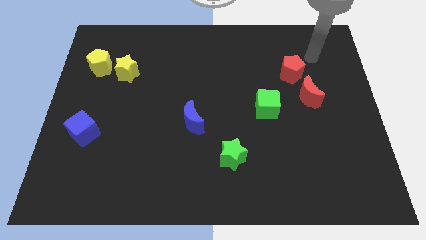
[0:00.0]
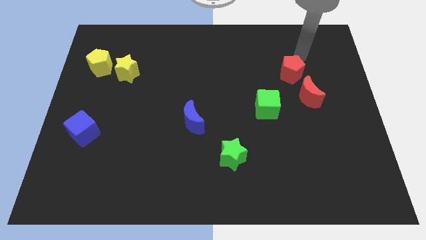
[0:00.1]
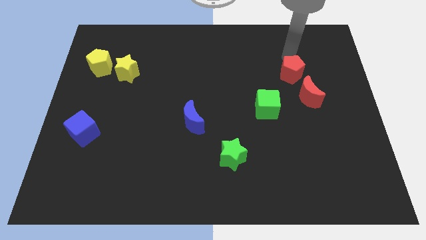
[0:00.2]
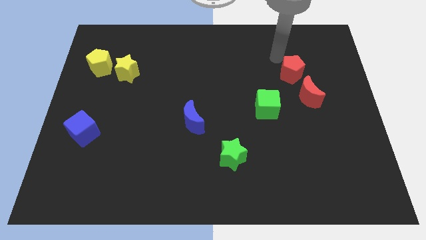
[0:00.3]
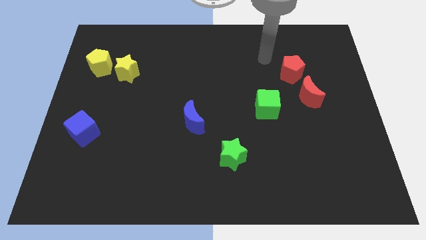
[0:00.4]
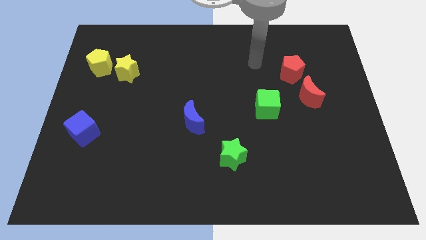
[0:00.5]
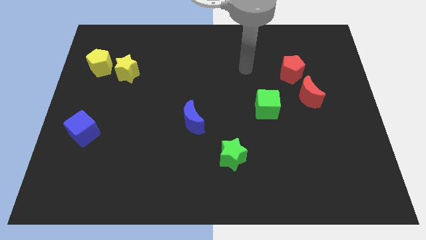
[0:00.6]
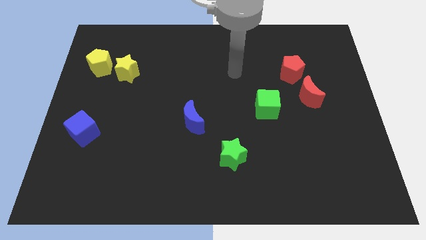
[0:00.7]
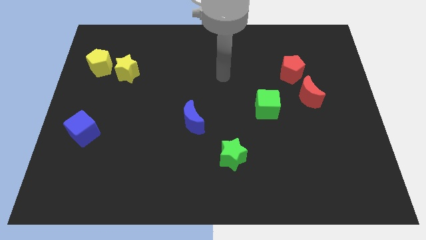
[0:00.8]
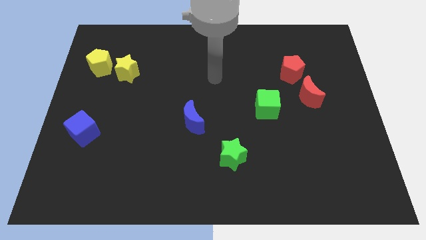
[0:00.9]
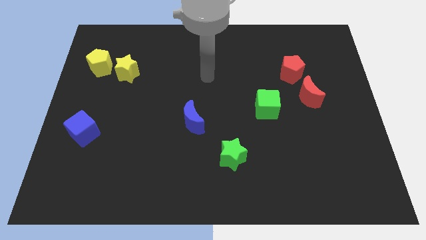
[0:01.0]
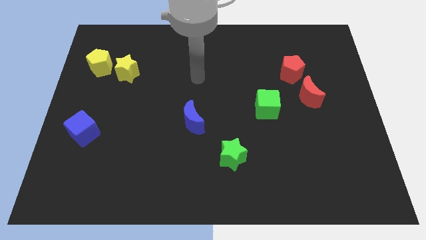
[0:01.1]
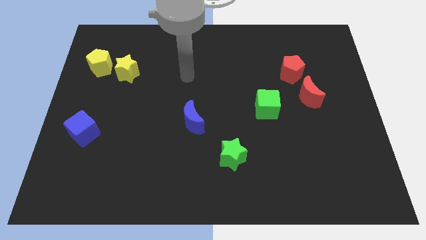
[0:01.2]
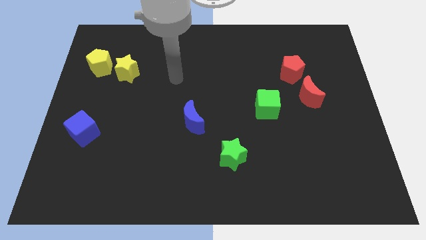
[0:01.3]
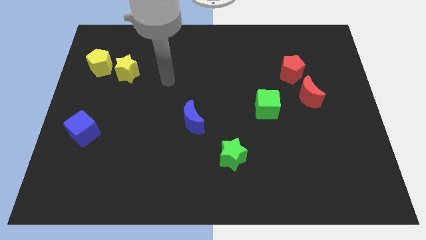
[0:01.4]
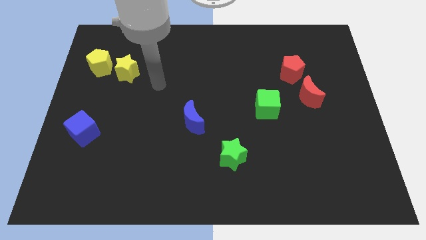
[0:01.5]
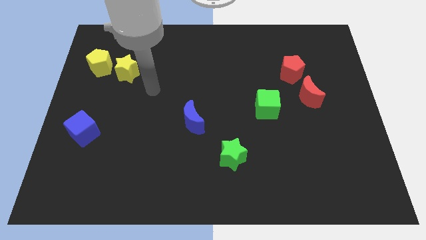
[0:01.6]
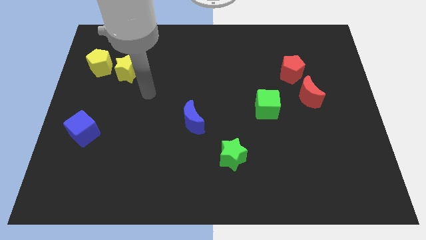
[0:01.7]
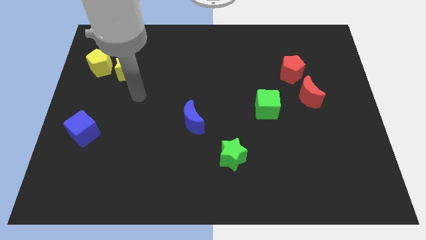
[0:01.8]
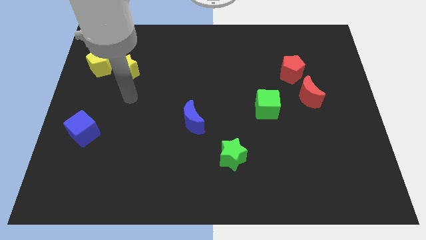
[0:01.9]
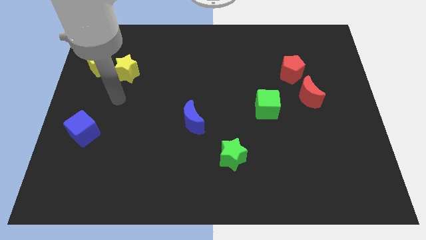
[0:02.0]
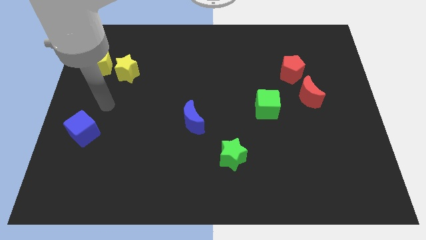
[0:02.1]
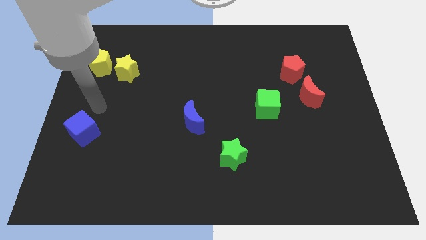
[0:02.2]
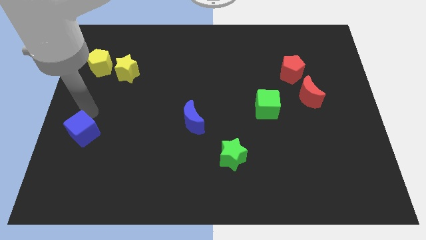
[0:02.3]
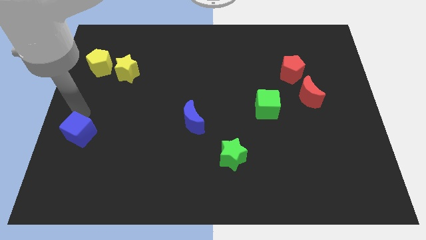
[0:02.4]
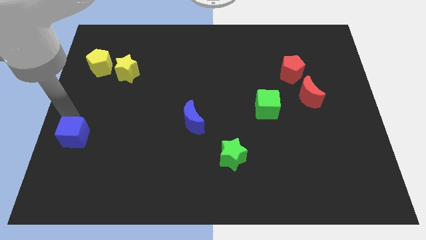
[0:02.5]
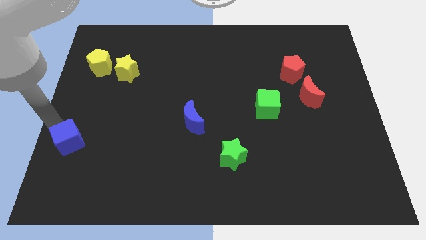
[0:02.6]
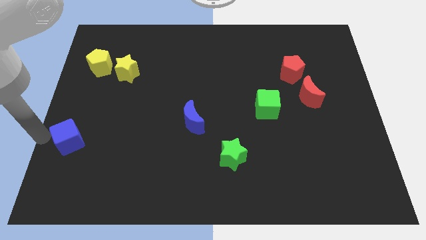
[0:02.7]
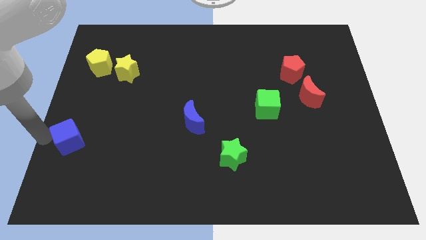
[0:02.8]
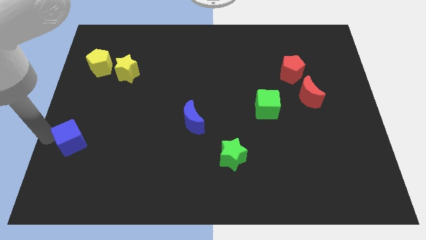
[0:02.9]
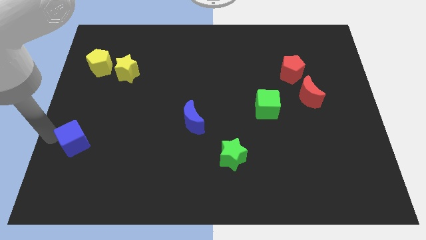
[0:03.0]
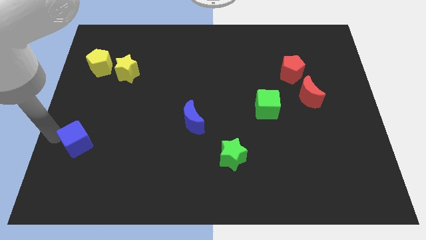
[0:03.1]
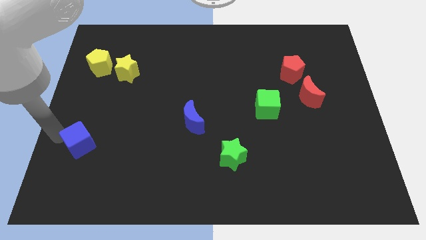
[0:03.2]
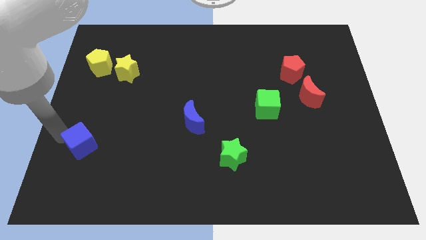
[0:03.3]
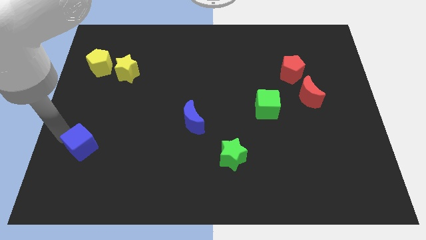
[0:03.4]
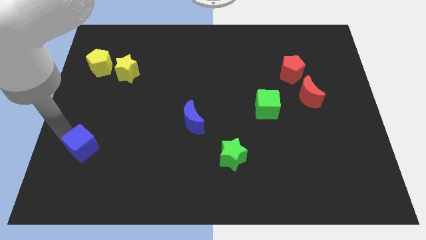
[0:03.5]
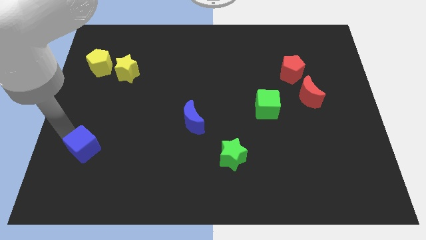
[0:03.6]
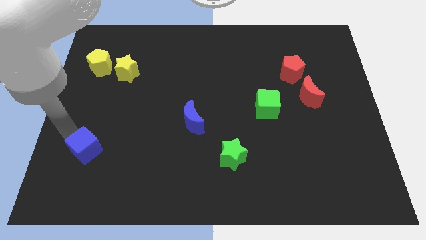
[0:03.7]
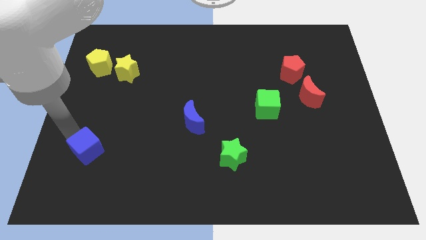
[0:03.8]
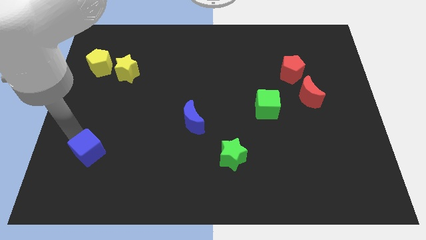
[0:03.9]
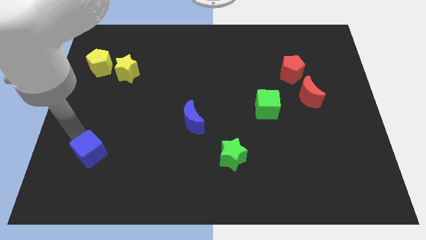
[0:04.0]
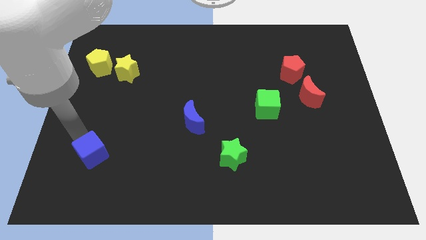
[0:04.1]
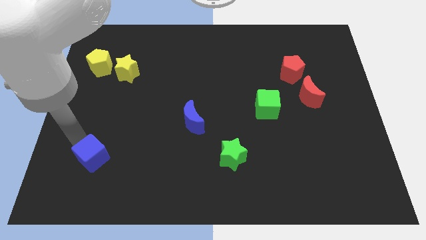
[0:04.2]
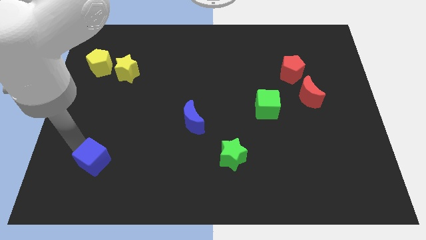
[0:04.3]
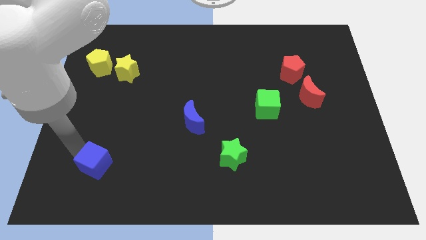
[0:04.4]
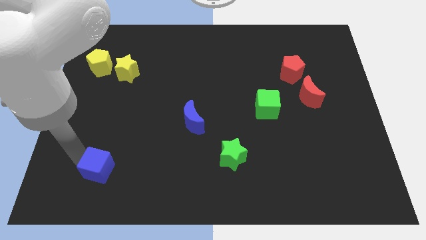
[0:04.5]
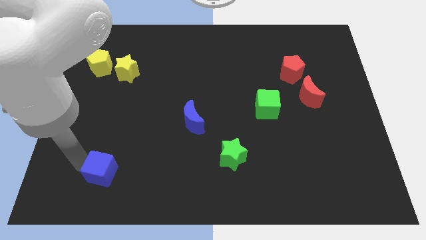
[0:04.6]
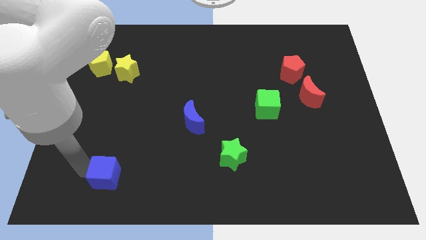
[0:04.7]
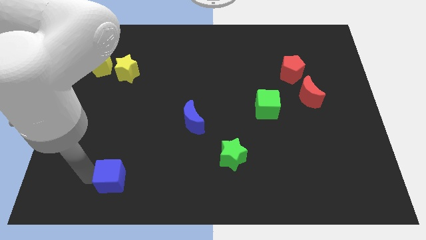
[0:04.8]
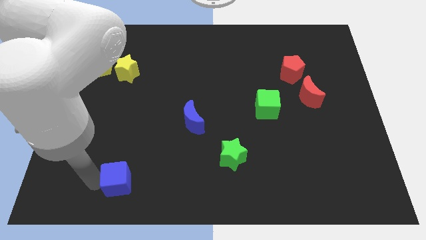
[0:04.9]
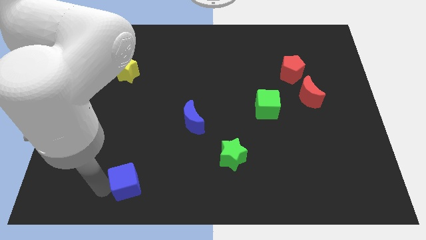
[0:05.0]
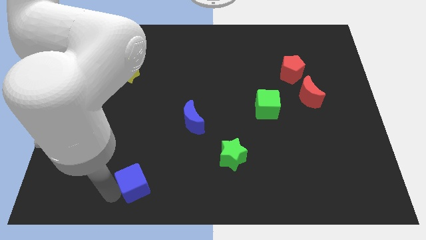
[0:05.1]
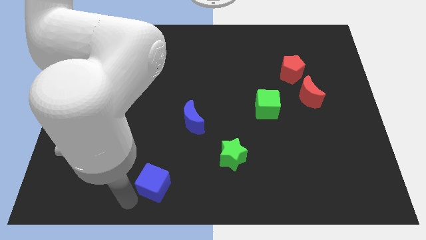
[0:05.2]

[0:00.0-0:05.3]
put the blue cube to the bottom side

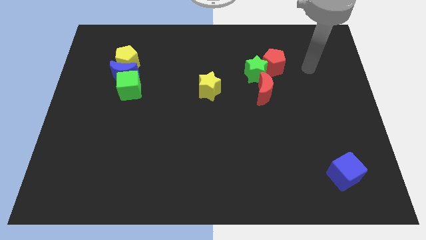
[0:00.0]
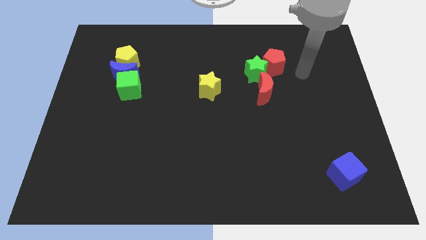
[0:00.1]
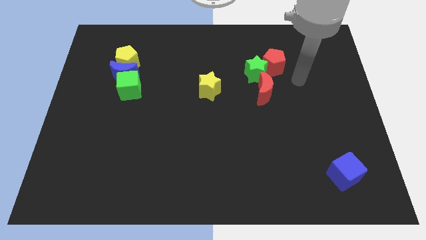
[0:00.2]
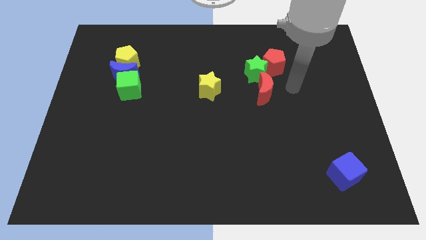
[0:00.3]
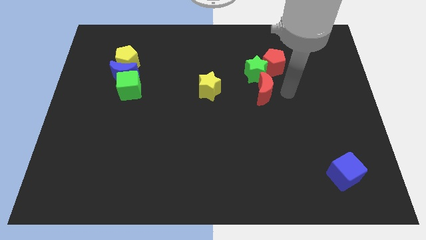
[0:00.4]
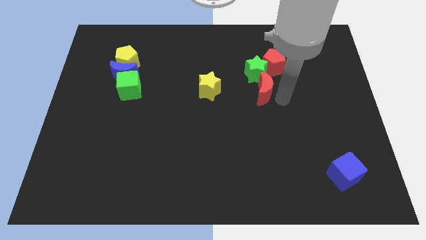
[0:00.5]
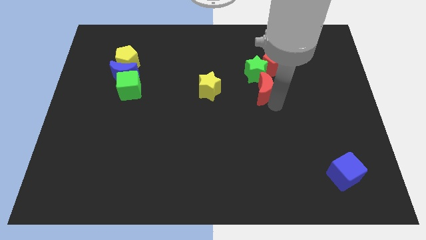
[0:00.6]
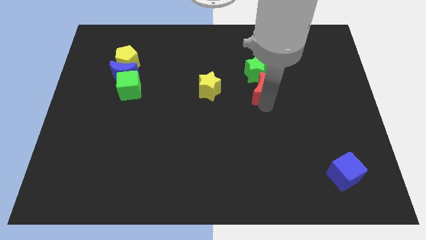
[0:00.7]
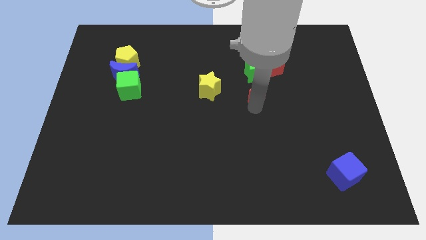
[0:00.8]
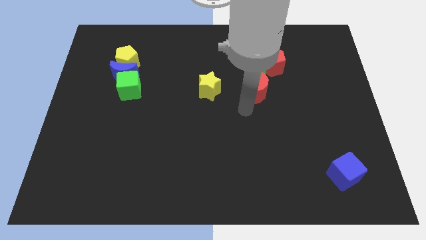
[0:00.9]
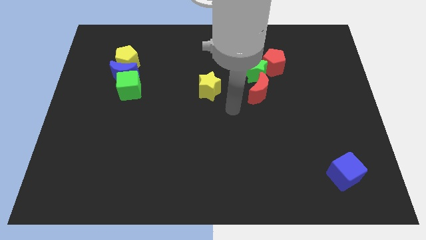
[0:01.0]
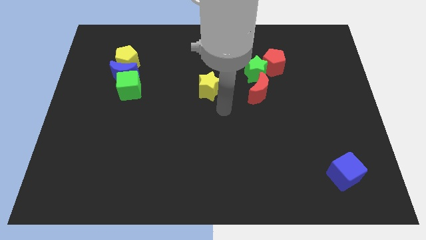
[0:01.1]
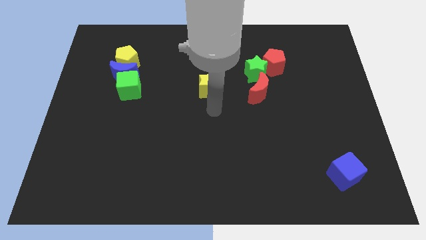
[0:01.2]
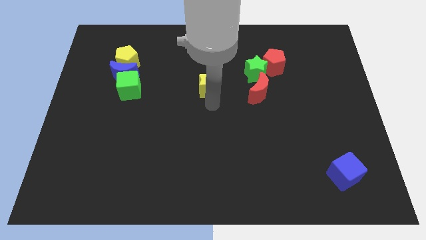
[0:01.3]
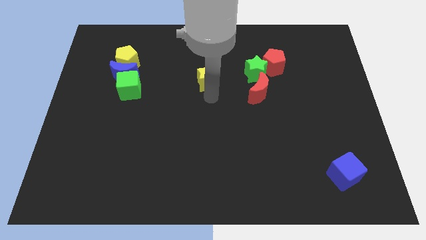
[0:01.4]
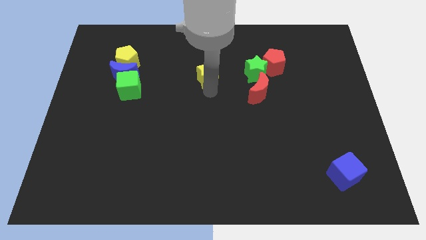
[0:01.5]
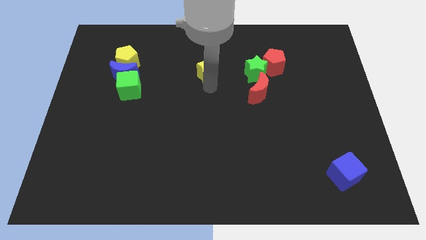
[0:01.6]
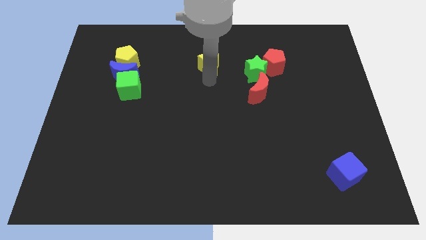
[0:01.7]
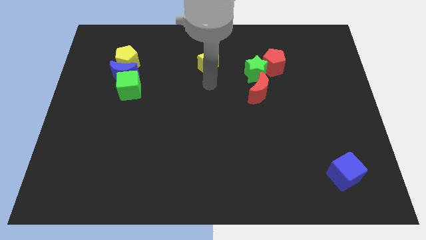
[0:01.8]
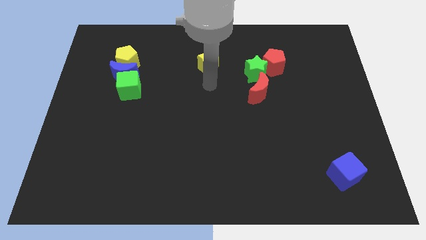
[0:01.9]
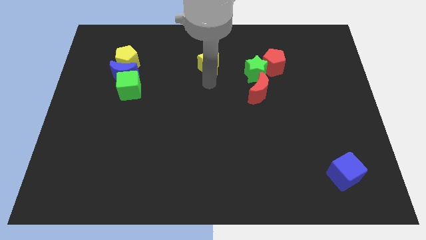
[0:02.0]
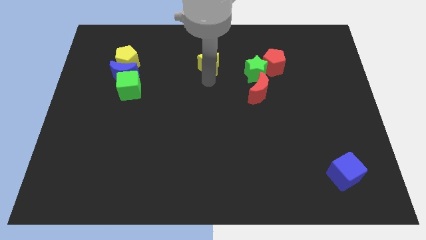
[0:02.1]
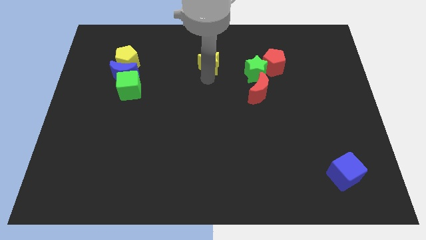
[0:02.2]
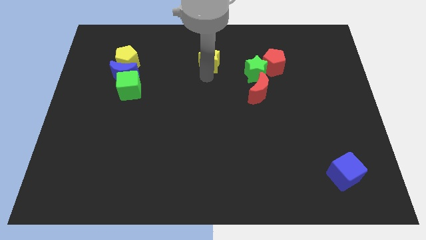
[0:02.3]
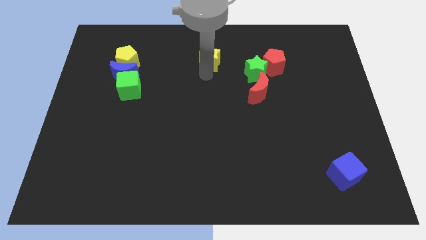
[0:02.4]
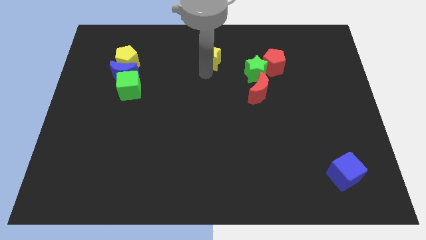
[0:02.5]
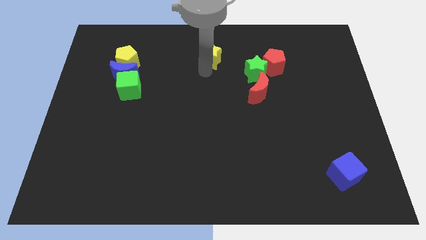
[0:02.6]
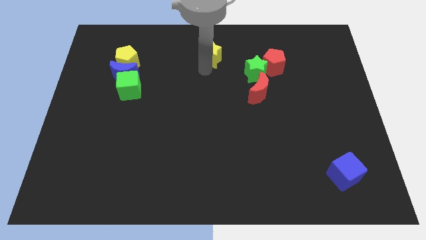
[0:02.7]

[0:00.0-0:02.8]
move the yellow star to the top side

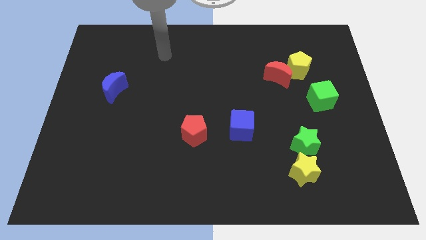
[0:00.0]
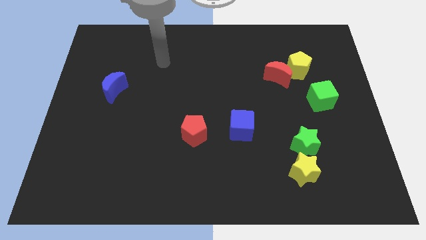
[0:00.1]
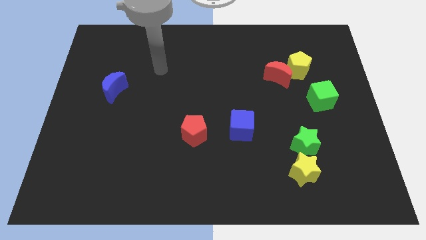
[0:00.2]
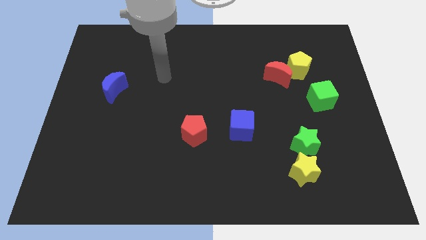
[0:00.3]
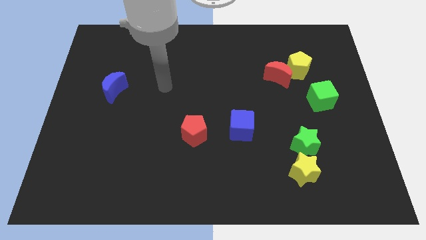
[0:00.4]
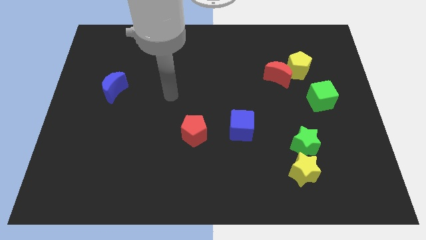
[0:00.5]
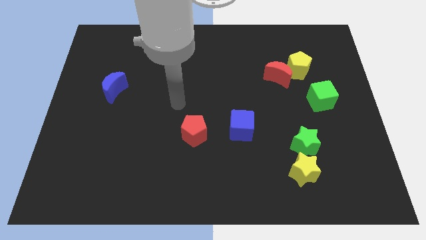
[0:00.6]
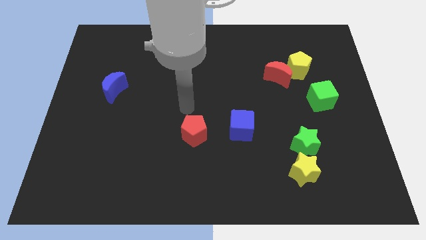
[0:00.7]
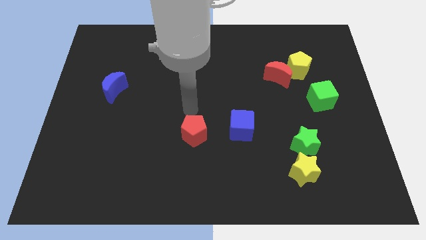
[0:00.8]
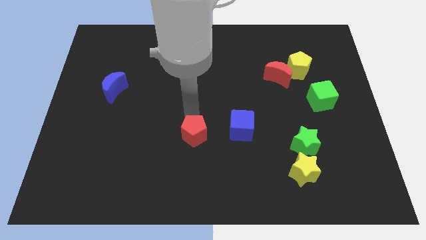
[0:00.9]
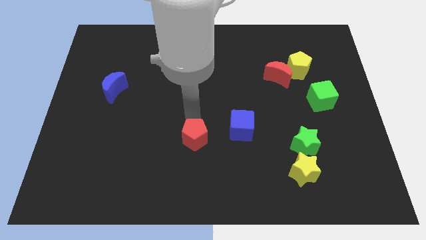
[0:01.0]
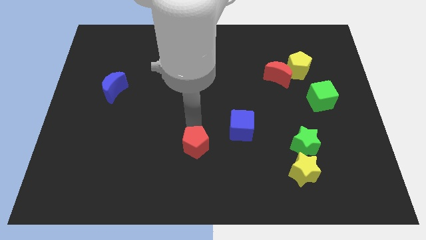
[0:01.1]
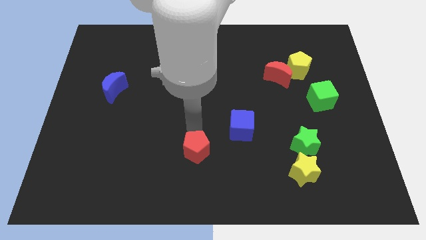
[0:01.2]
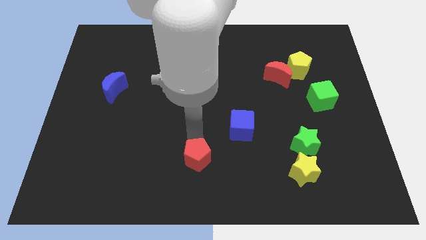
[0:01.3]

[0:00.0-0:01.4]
slide the red pentagon to the bottom side
